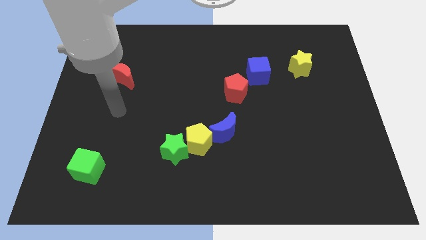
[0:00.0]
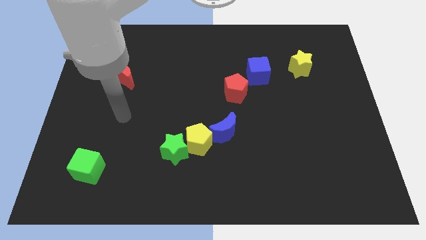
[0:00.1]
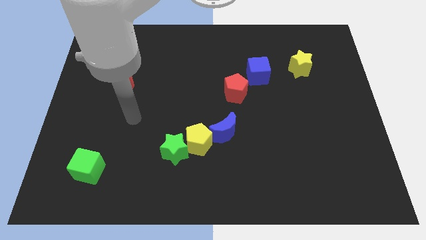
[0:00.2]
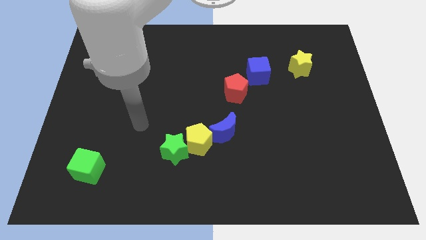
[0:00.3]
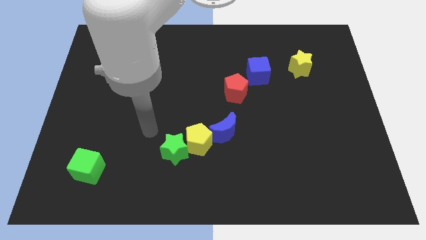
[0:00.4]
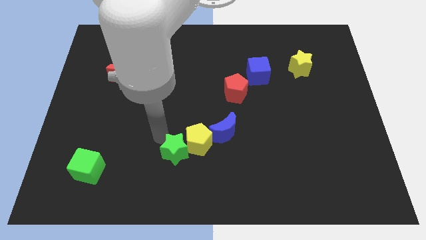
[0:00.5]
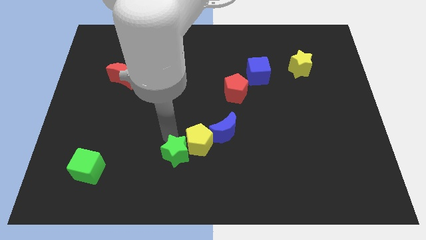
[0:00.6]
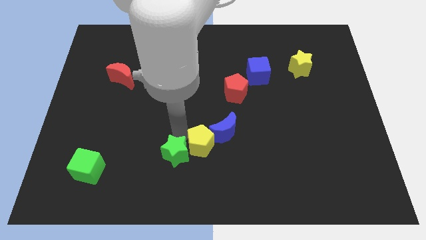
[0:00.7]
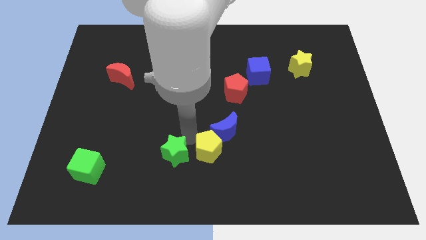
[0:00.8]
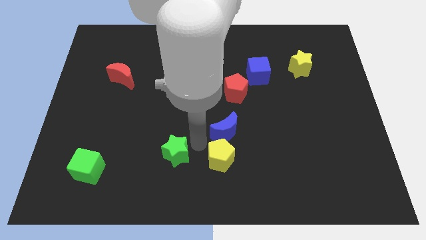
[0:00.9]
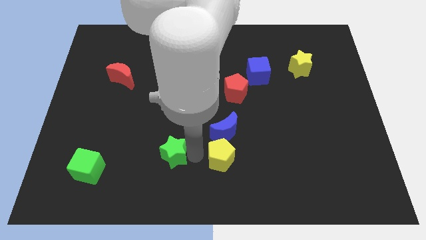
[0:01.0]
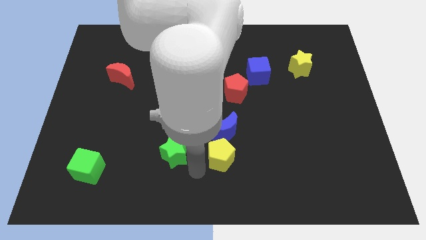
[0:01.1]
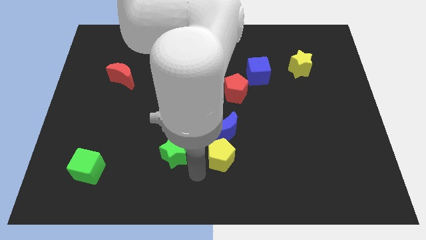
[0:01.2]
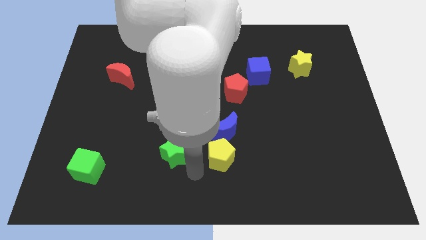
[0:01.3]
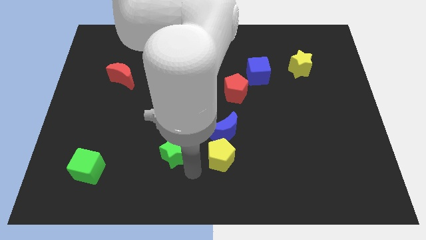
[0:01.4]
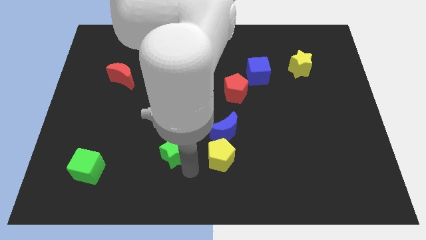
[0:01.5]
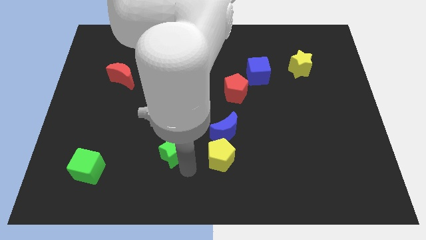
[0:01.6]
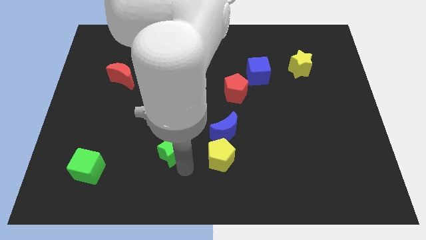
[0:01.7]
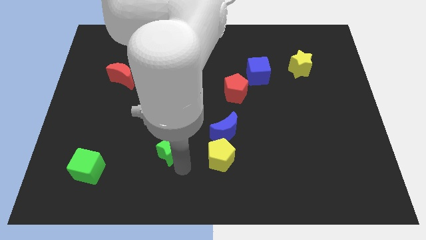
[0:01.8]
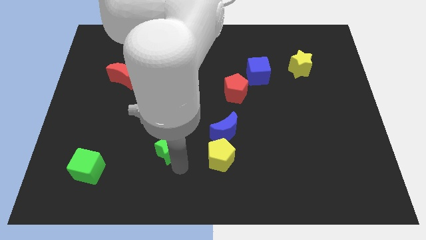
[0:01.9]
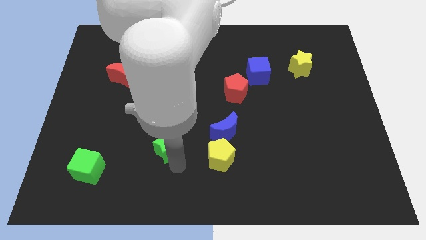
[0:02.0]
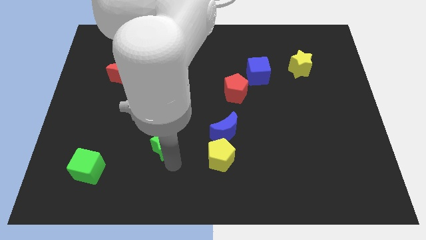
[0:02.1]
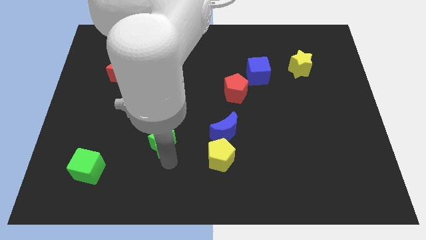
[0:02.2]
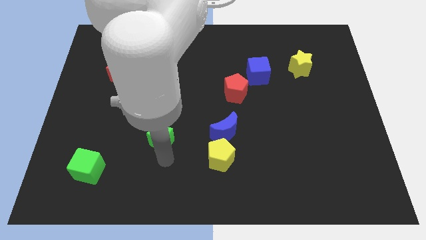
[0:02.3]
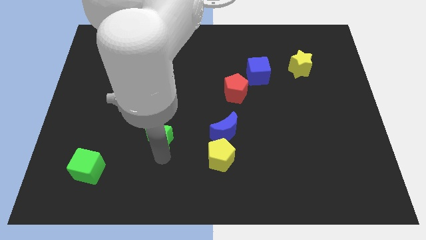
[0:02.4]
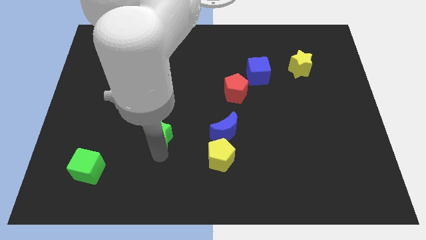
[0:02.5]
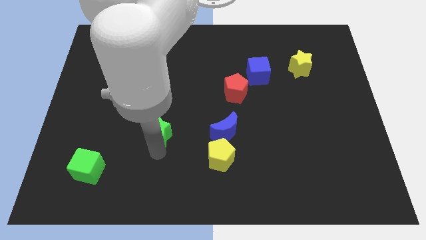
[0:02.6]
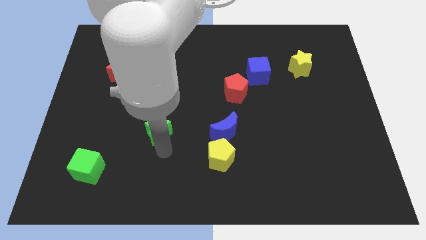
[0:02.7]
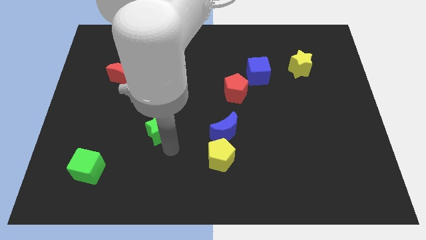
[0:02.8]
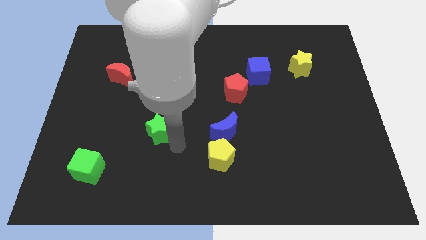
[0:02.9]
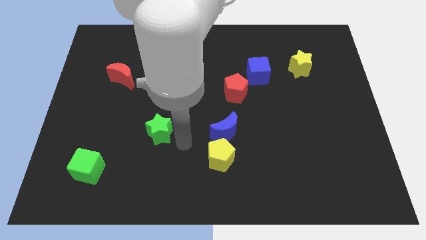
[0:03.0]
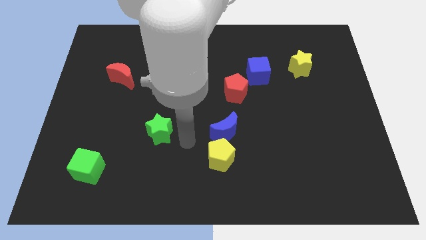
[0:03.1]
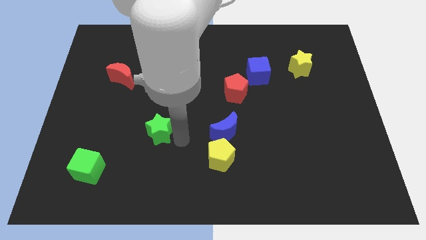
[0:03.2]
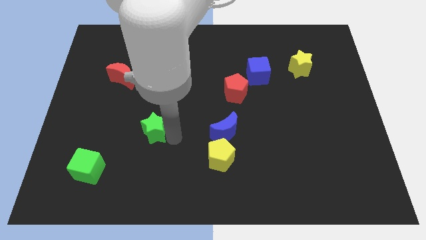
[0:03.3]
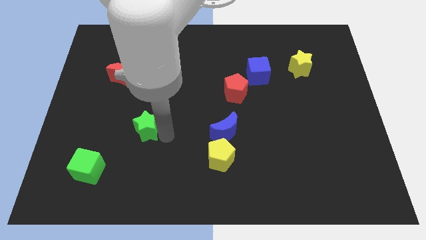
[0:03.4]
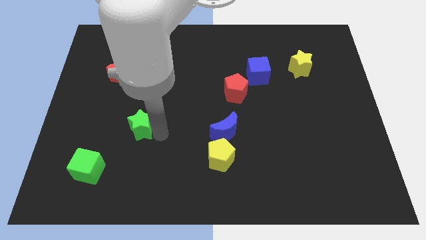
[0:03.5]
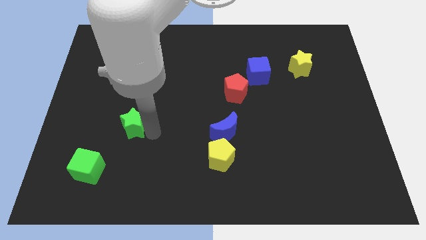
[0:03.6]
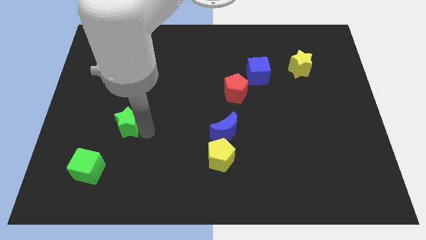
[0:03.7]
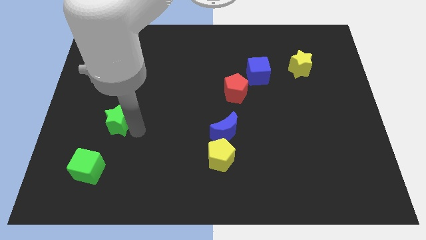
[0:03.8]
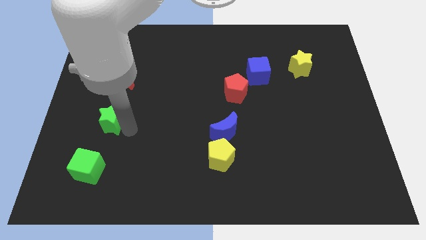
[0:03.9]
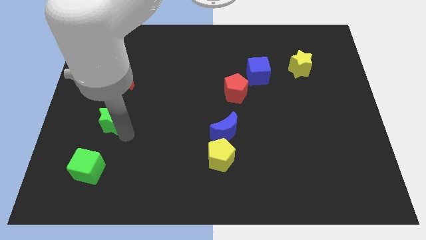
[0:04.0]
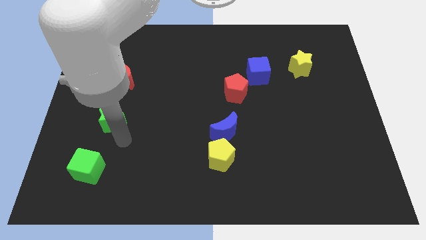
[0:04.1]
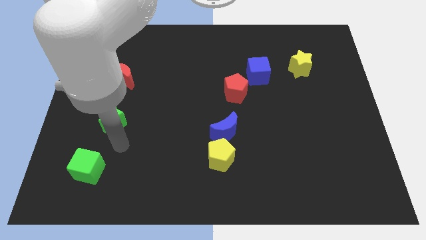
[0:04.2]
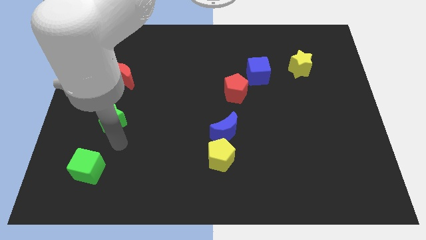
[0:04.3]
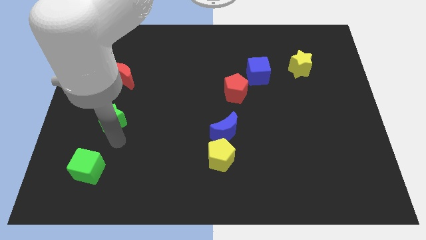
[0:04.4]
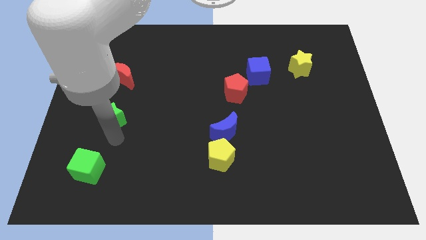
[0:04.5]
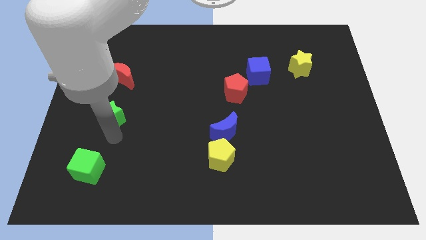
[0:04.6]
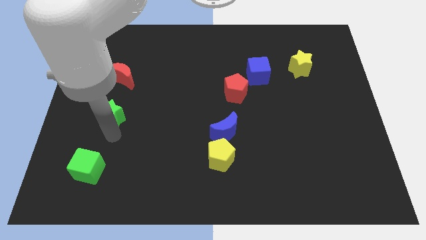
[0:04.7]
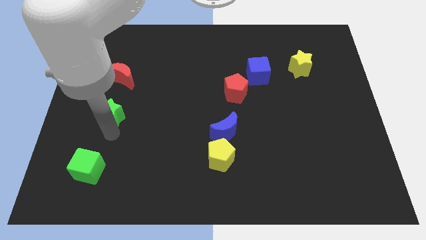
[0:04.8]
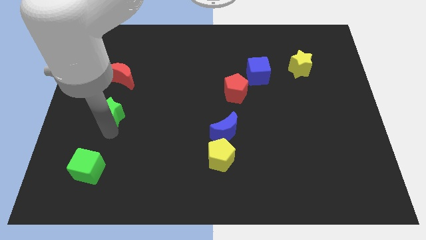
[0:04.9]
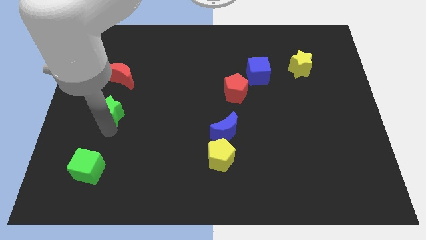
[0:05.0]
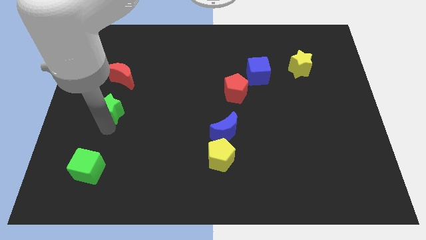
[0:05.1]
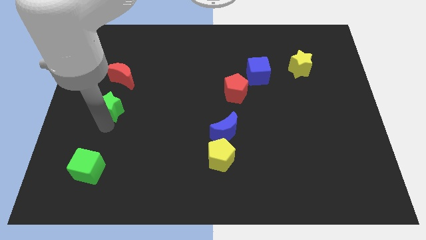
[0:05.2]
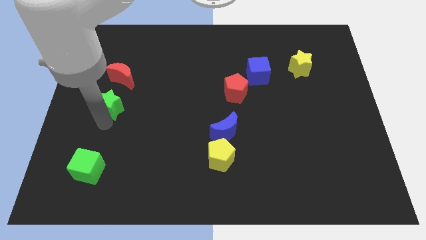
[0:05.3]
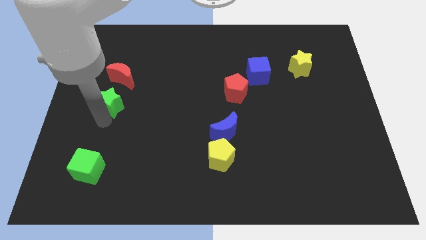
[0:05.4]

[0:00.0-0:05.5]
push the green star diagonally down and to the left of the red moon

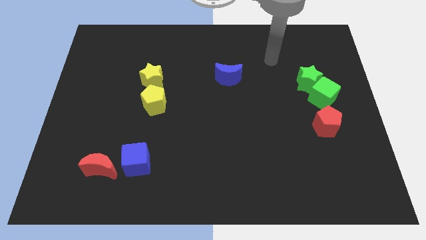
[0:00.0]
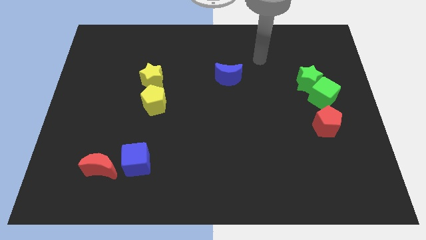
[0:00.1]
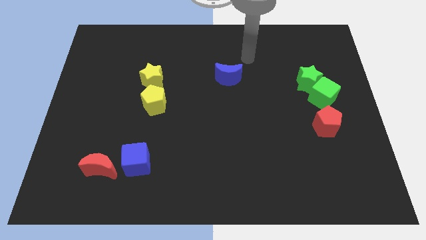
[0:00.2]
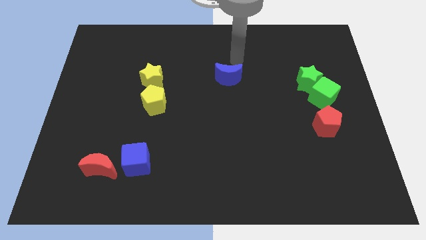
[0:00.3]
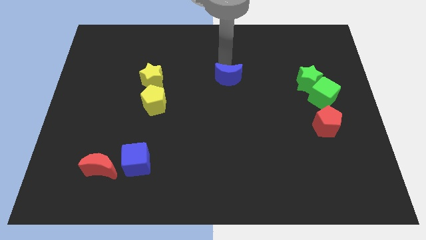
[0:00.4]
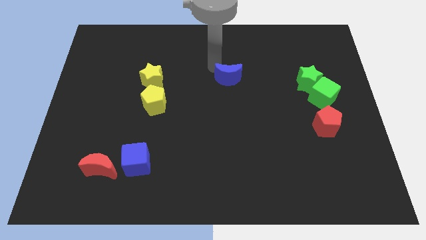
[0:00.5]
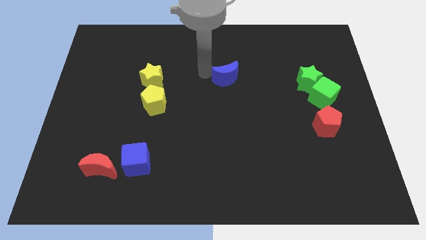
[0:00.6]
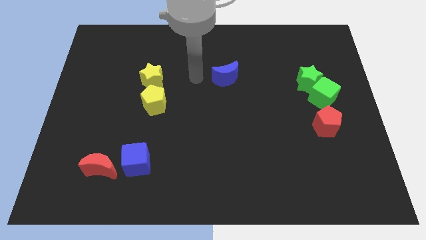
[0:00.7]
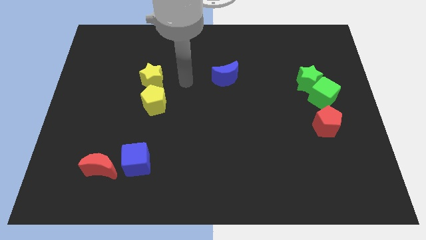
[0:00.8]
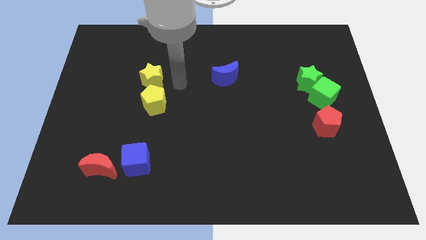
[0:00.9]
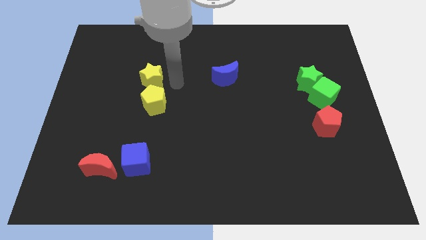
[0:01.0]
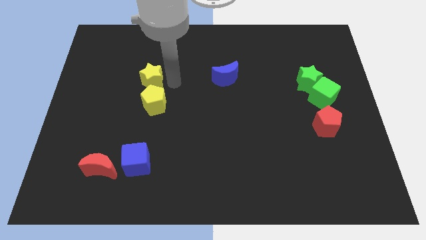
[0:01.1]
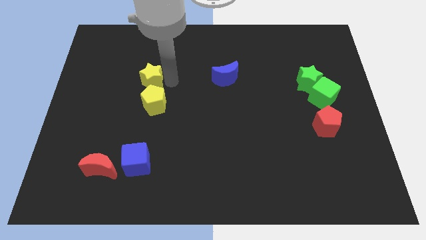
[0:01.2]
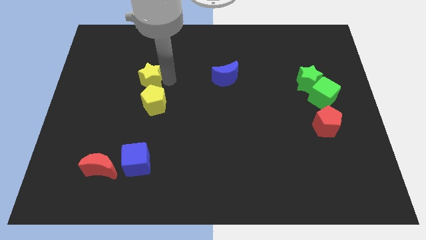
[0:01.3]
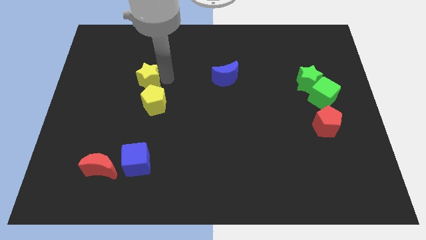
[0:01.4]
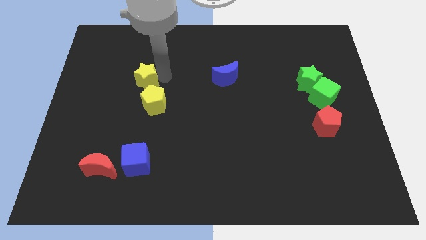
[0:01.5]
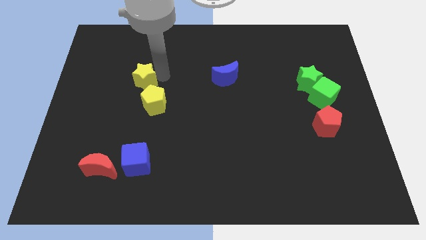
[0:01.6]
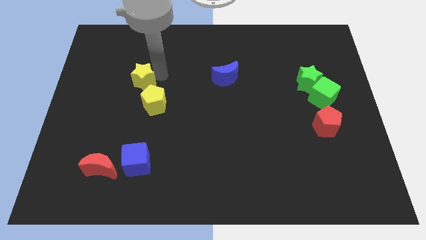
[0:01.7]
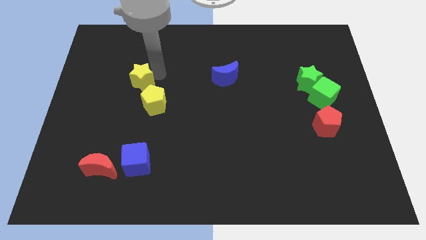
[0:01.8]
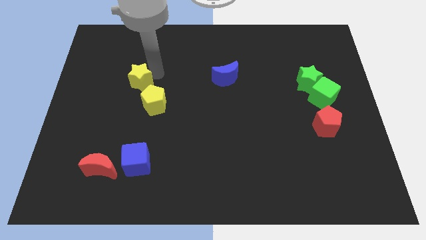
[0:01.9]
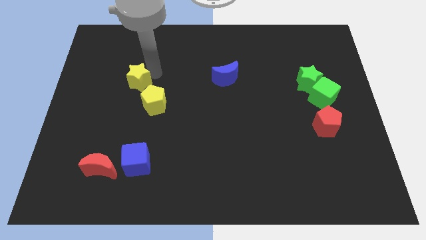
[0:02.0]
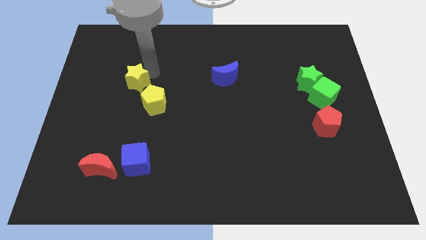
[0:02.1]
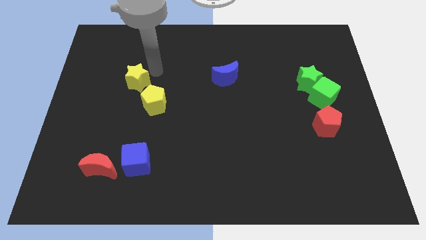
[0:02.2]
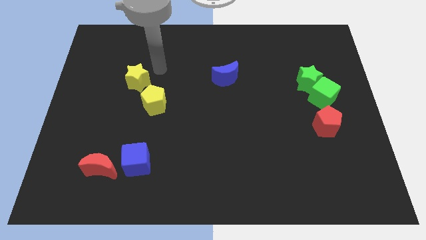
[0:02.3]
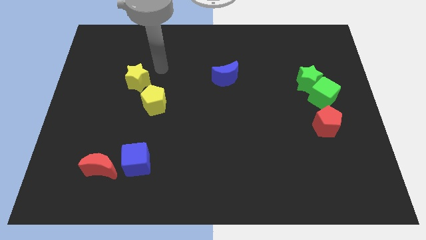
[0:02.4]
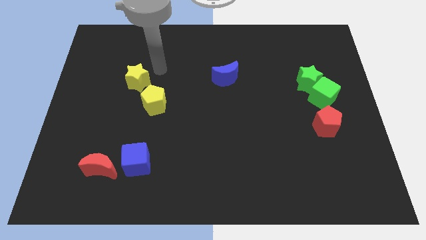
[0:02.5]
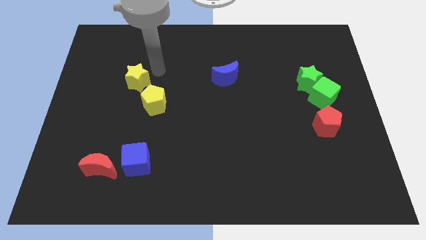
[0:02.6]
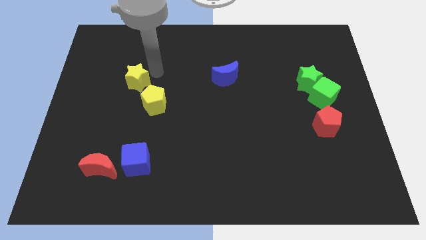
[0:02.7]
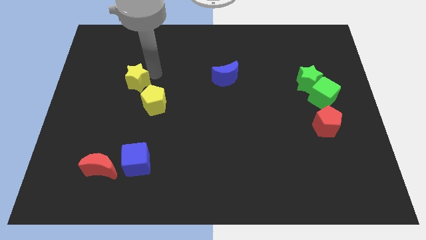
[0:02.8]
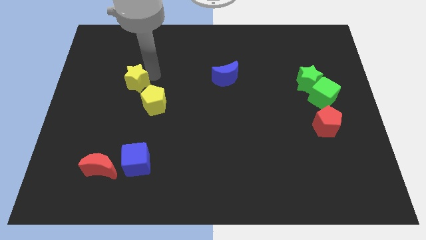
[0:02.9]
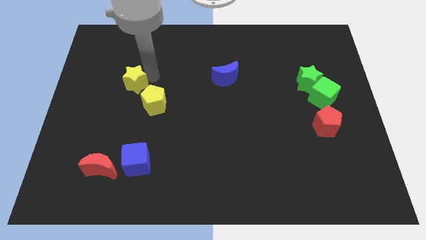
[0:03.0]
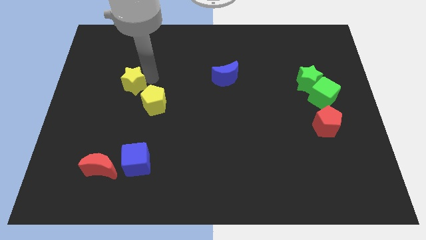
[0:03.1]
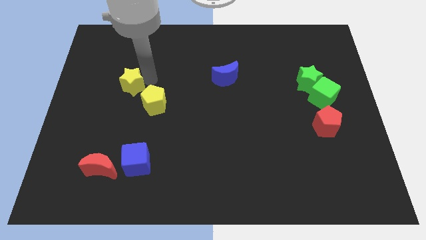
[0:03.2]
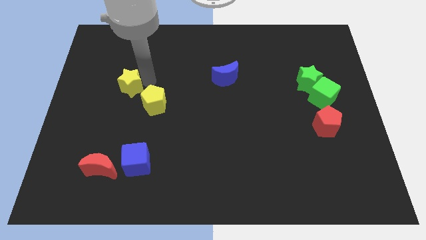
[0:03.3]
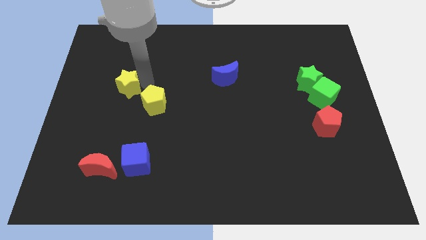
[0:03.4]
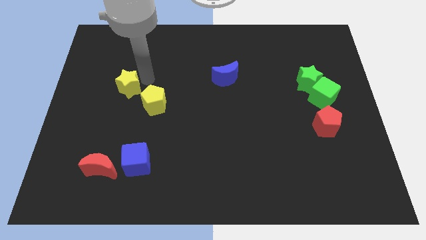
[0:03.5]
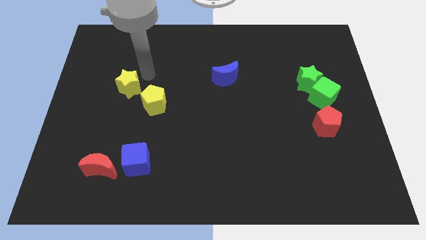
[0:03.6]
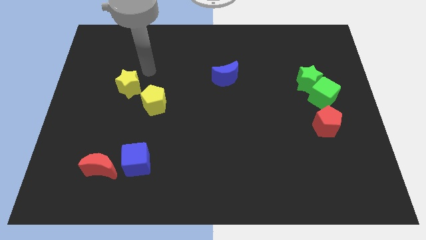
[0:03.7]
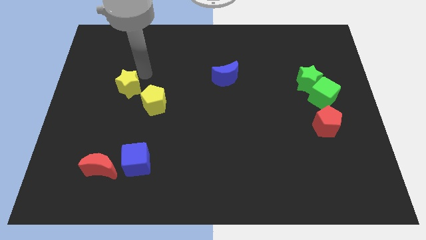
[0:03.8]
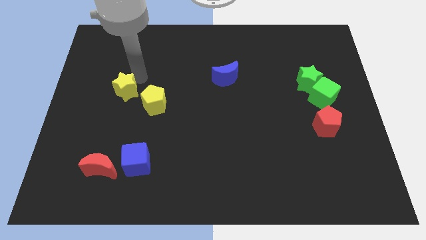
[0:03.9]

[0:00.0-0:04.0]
push the yellow star to the left side of the yellow pentagon
